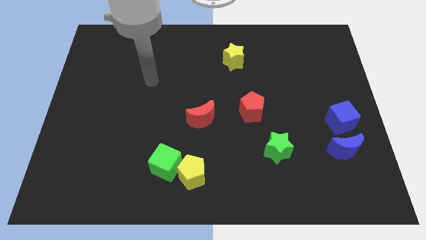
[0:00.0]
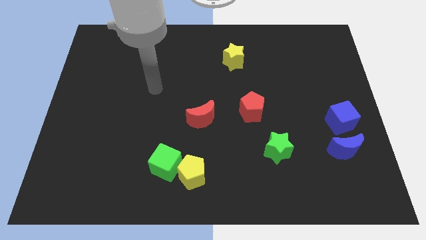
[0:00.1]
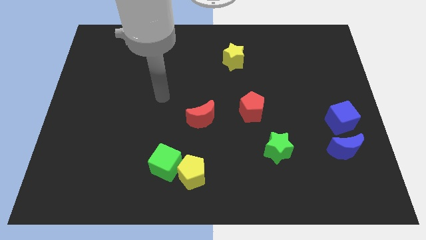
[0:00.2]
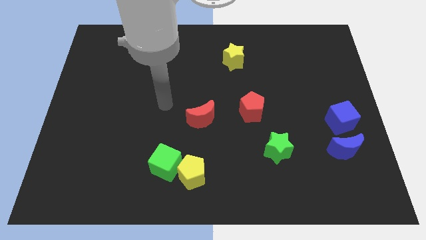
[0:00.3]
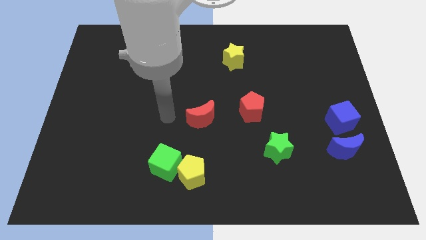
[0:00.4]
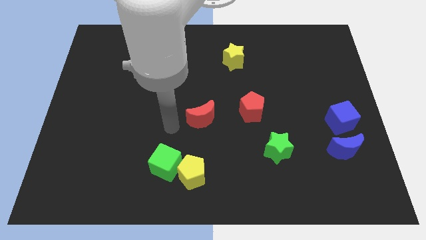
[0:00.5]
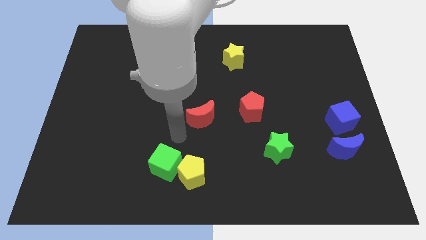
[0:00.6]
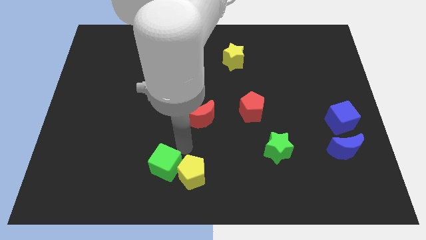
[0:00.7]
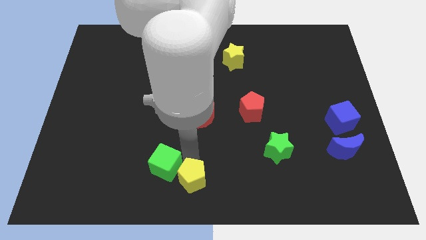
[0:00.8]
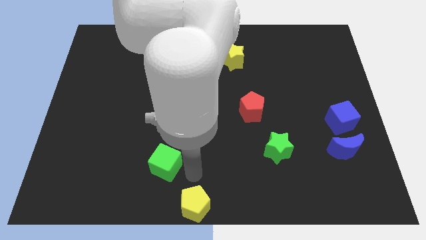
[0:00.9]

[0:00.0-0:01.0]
move the green cube away from the yellow pentagon

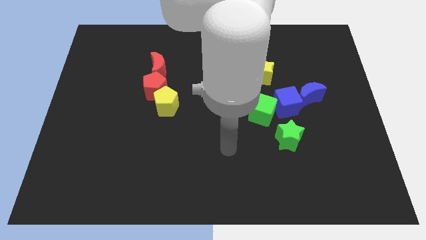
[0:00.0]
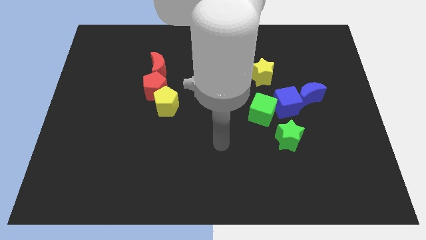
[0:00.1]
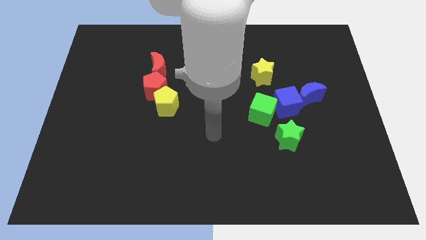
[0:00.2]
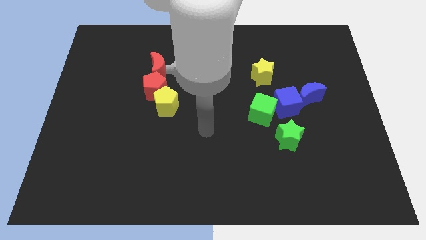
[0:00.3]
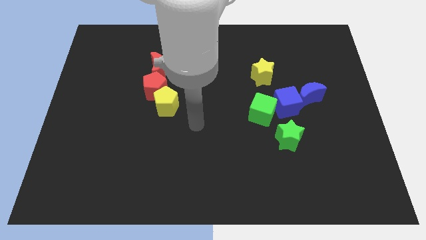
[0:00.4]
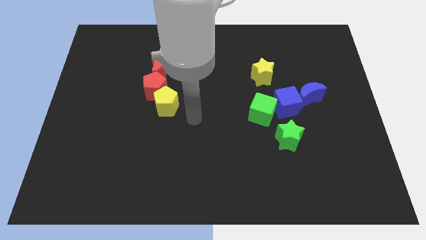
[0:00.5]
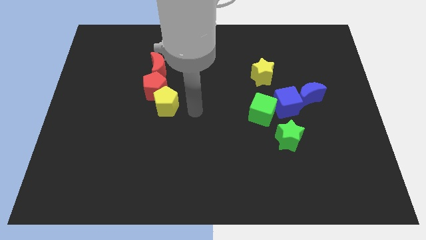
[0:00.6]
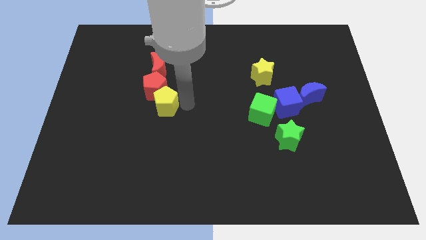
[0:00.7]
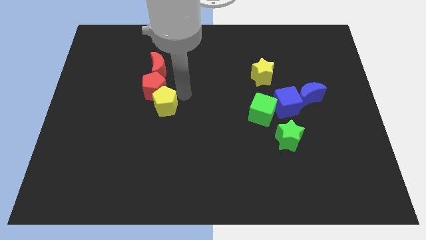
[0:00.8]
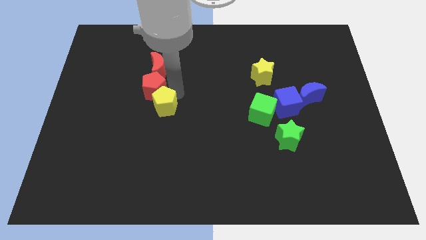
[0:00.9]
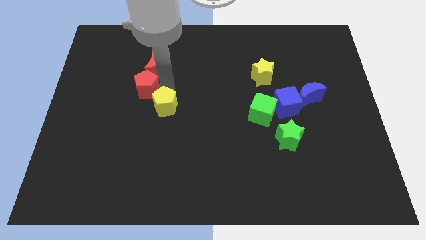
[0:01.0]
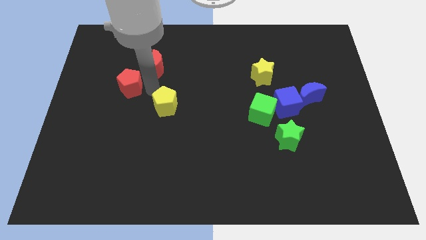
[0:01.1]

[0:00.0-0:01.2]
pull the yellow pentagon apart from the red pentagon

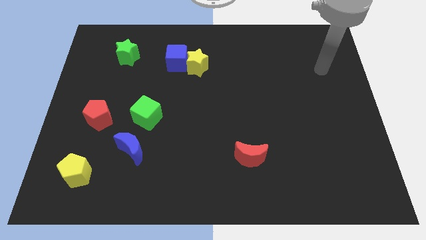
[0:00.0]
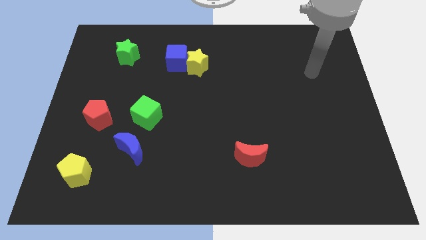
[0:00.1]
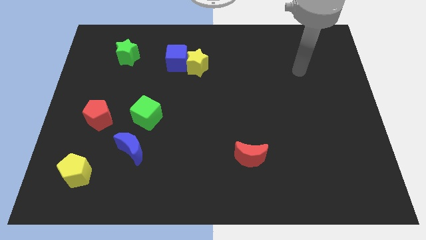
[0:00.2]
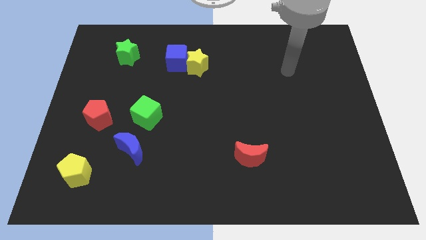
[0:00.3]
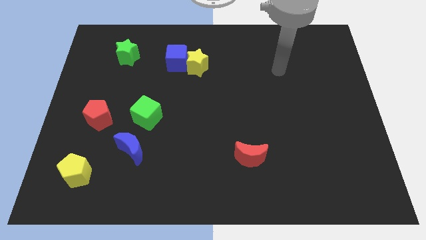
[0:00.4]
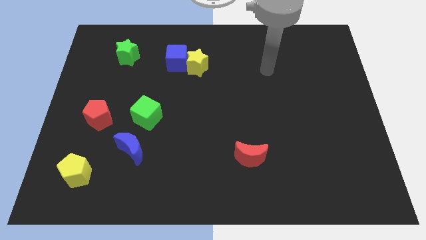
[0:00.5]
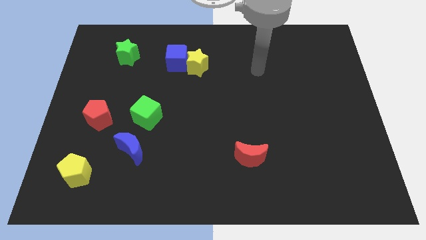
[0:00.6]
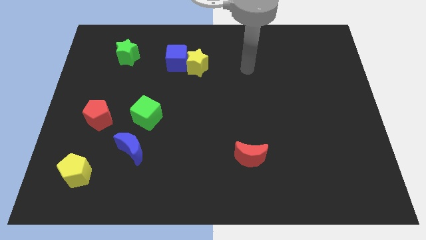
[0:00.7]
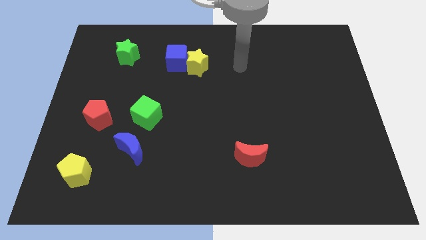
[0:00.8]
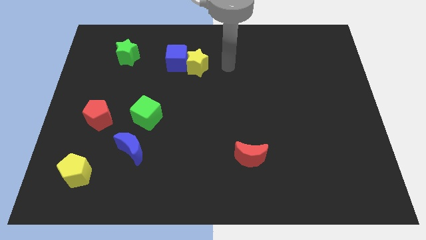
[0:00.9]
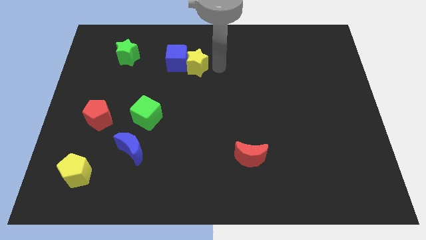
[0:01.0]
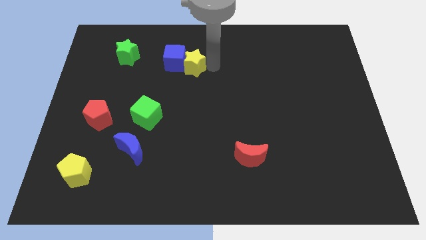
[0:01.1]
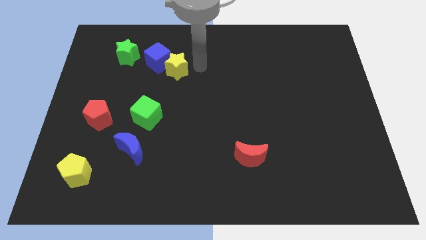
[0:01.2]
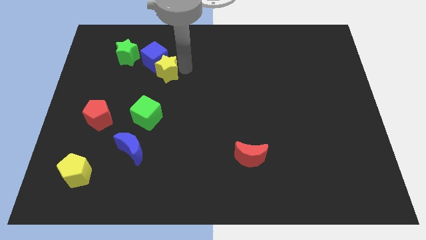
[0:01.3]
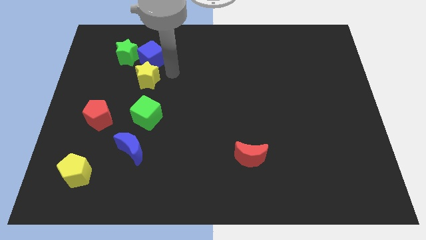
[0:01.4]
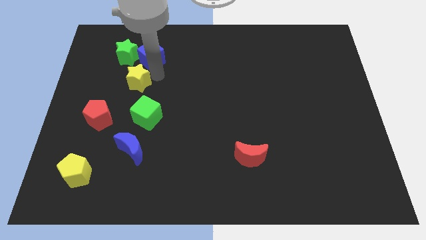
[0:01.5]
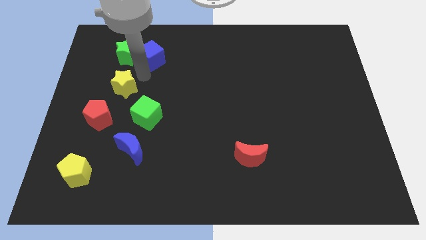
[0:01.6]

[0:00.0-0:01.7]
move the blue cube away from the yellow star

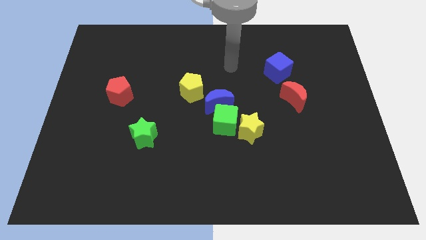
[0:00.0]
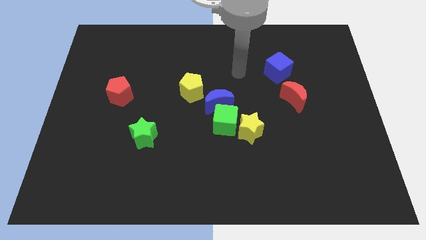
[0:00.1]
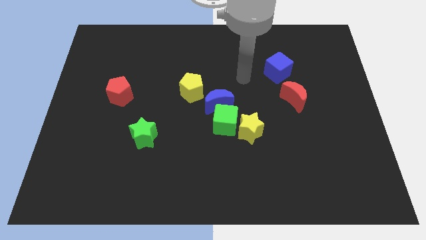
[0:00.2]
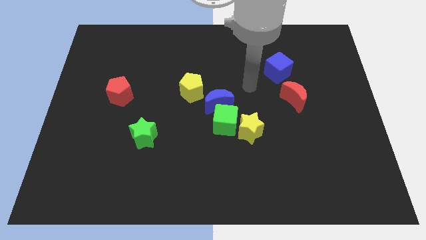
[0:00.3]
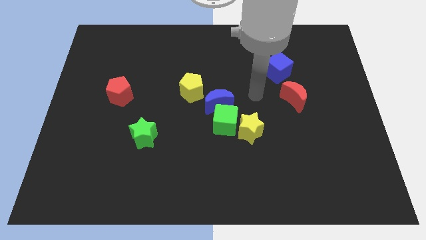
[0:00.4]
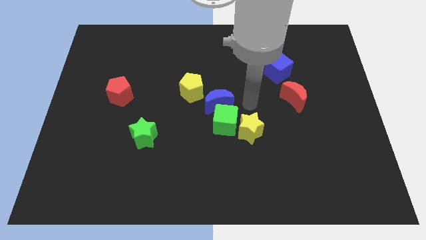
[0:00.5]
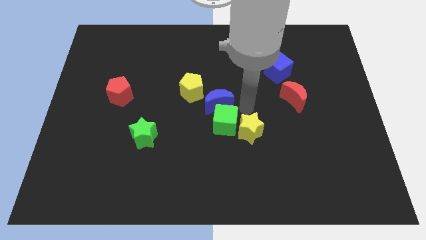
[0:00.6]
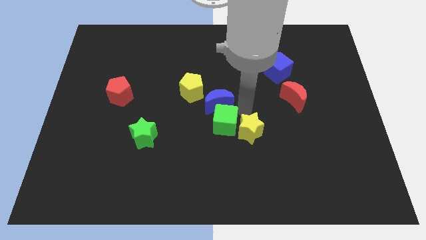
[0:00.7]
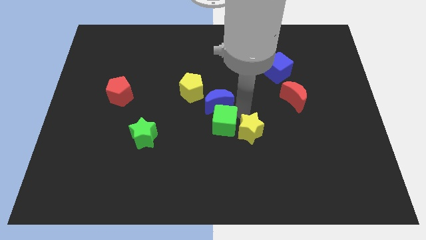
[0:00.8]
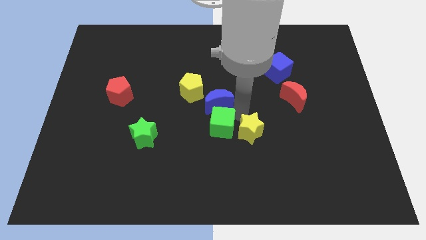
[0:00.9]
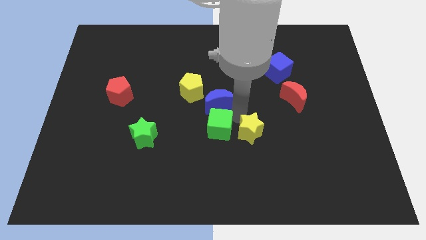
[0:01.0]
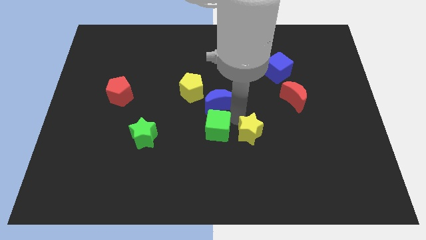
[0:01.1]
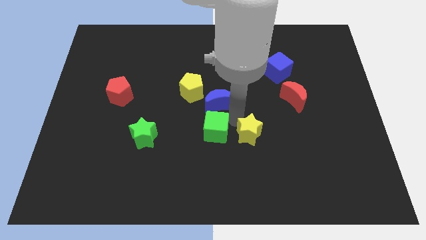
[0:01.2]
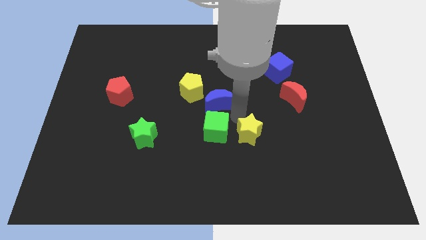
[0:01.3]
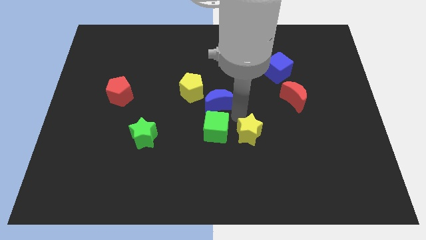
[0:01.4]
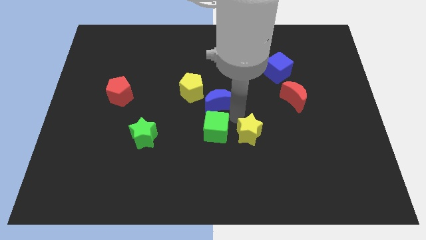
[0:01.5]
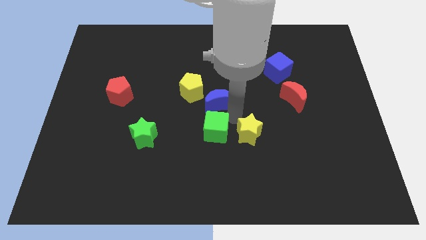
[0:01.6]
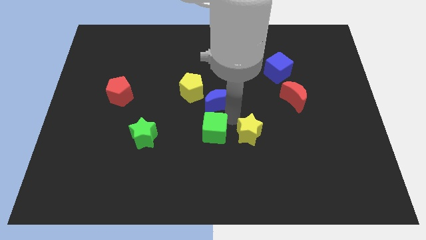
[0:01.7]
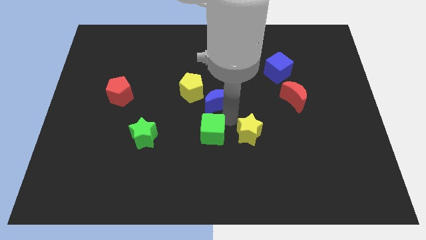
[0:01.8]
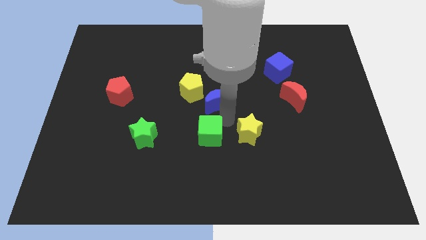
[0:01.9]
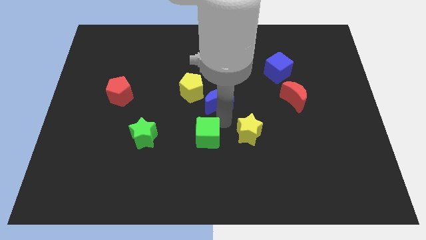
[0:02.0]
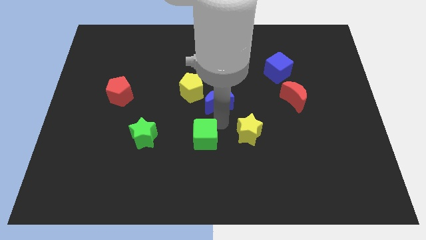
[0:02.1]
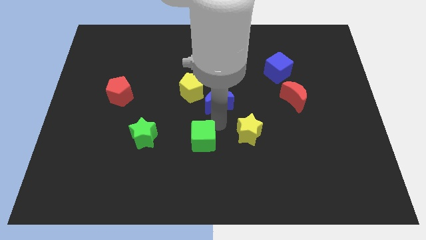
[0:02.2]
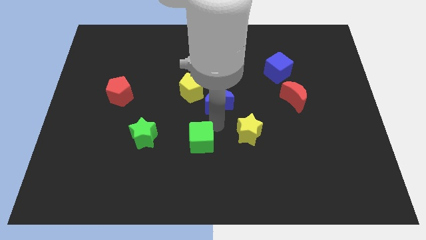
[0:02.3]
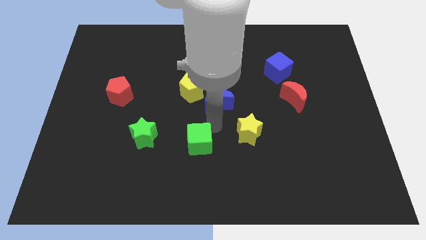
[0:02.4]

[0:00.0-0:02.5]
separate the green cube from the blue moon and yellow star

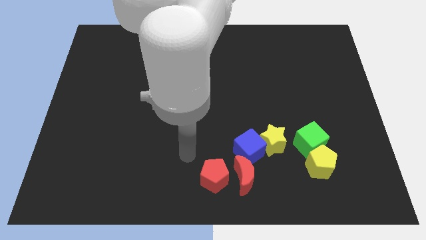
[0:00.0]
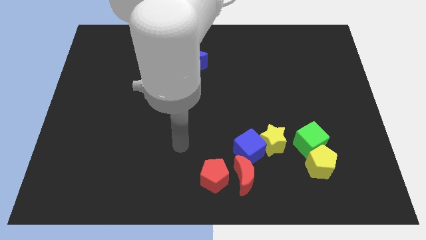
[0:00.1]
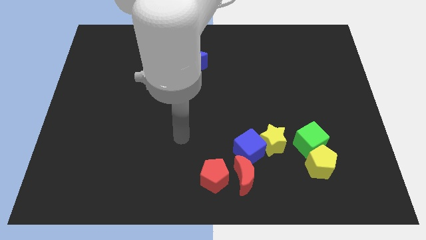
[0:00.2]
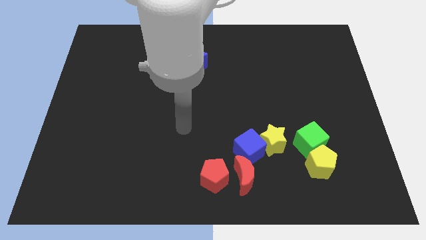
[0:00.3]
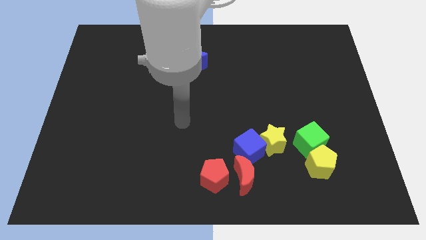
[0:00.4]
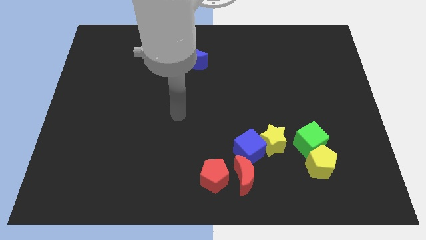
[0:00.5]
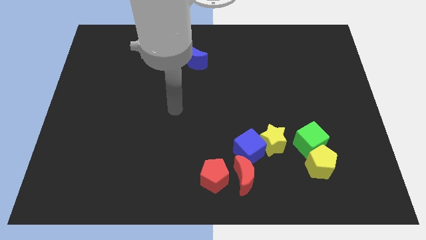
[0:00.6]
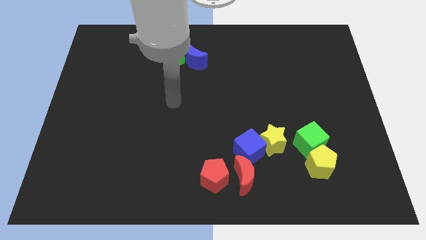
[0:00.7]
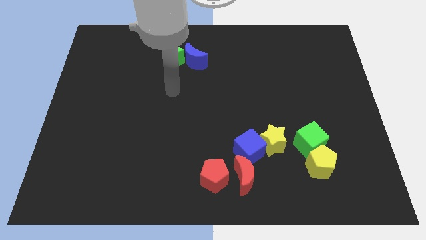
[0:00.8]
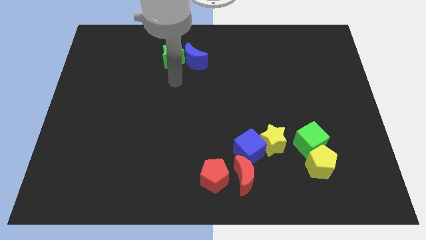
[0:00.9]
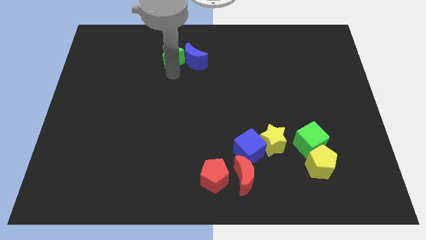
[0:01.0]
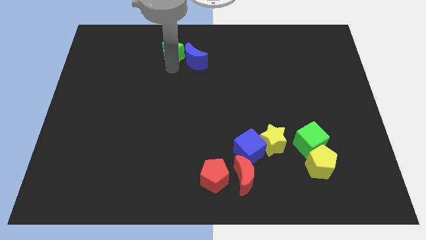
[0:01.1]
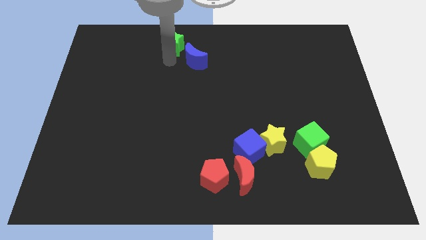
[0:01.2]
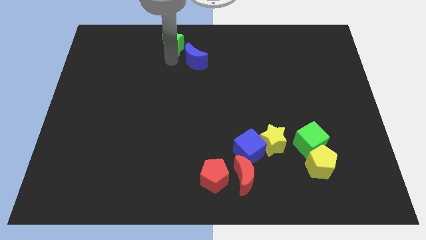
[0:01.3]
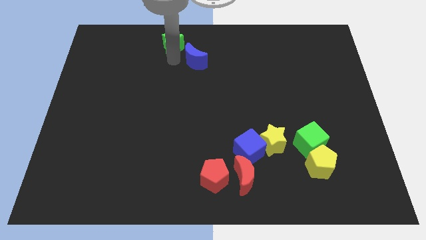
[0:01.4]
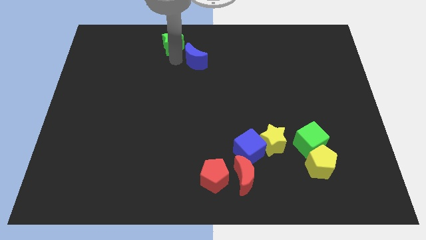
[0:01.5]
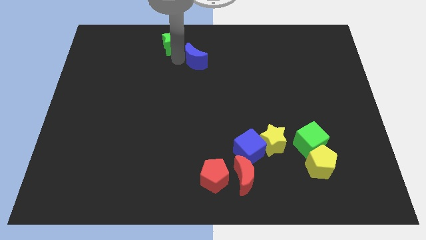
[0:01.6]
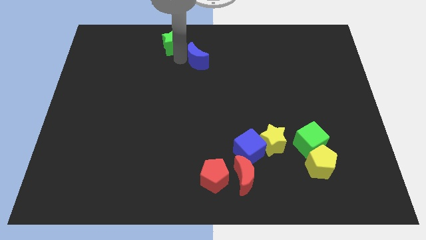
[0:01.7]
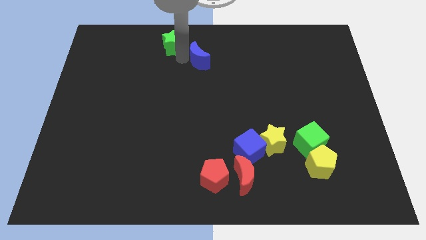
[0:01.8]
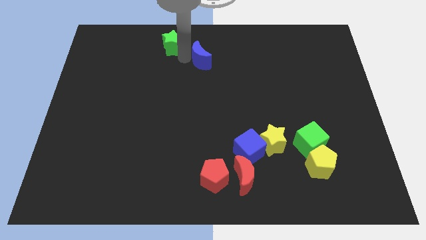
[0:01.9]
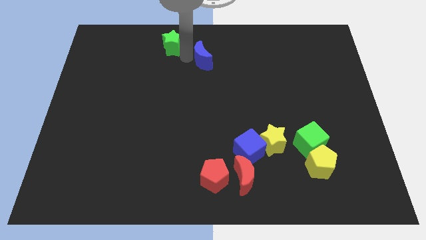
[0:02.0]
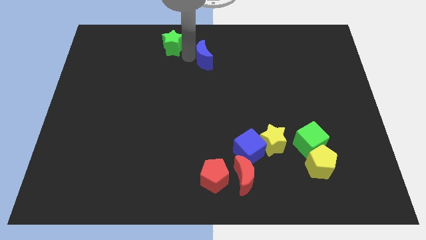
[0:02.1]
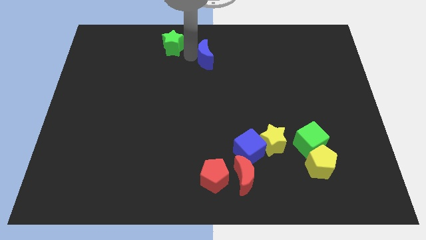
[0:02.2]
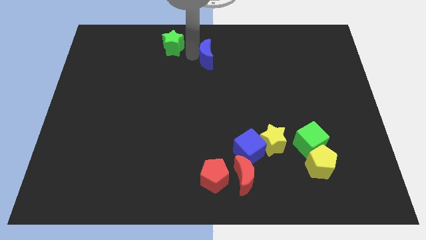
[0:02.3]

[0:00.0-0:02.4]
pull the blue moon apart from the green star

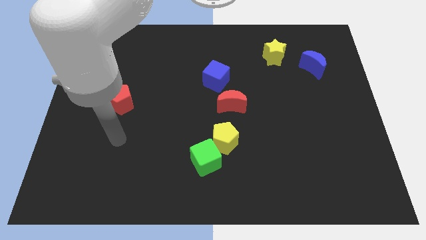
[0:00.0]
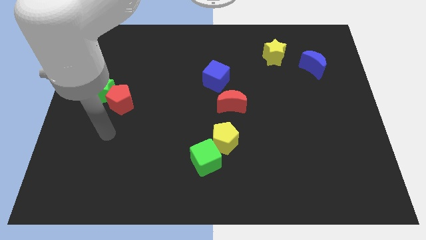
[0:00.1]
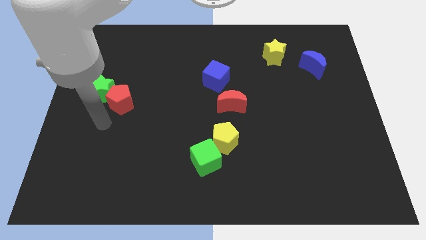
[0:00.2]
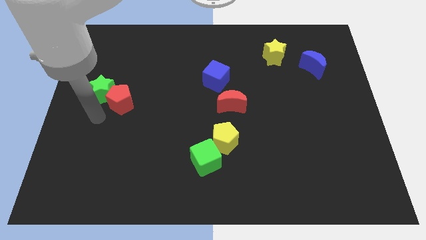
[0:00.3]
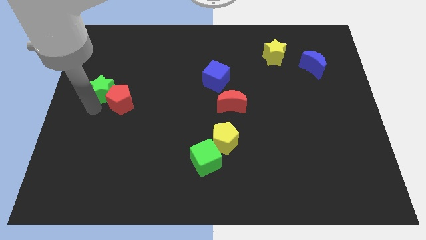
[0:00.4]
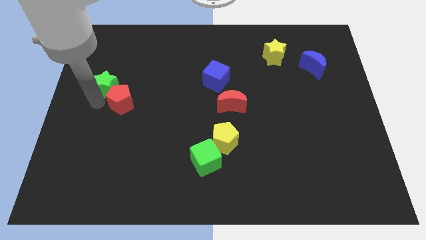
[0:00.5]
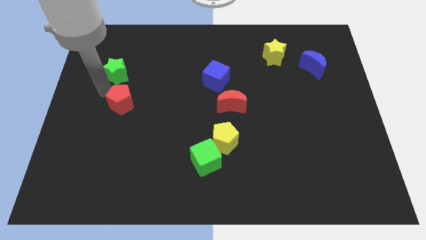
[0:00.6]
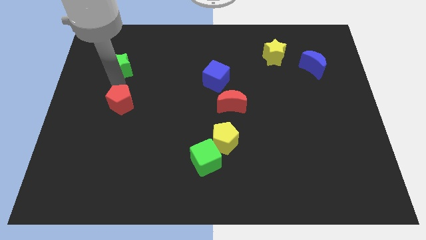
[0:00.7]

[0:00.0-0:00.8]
move the red pentagon away from the green star
